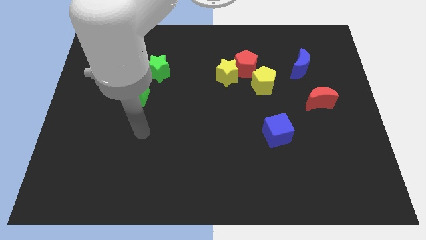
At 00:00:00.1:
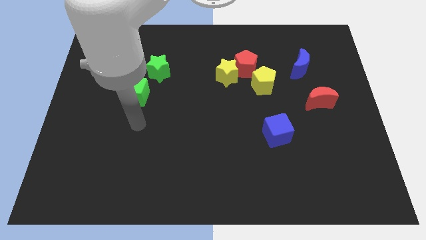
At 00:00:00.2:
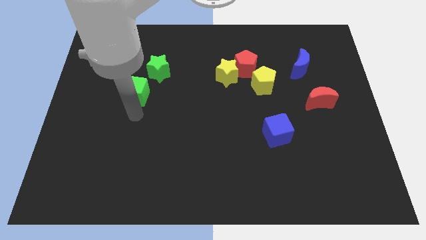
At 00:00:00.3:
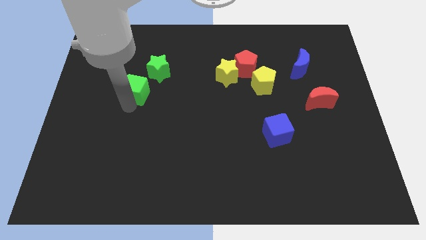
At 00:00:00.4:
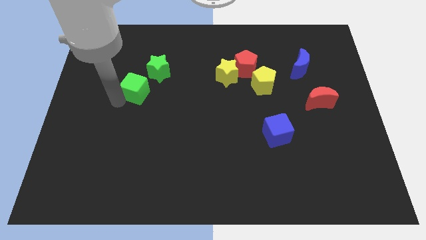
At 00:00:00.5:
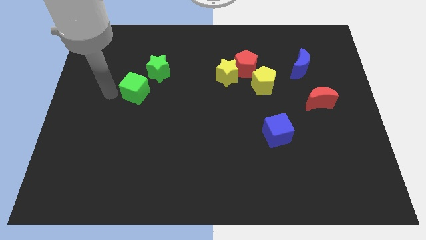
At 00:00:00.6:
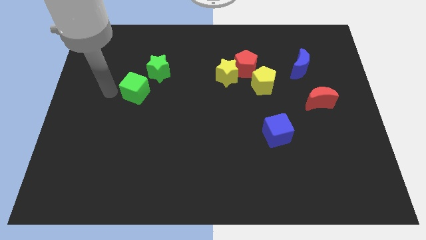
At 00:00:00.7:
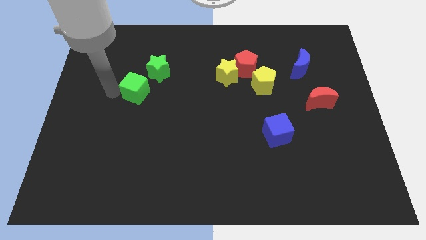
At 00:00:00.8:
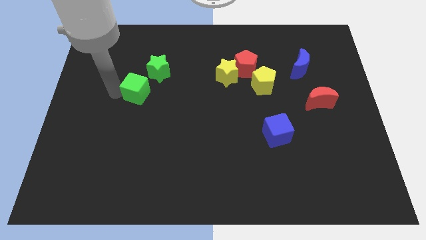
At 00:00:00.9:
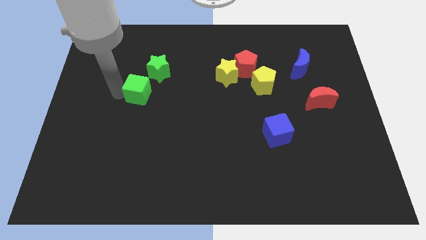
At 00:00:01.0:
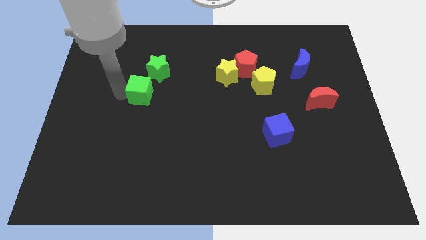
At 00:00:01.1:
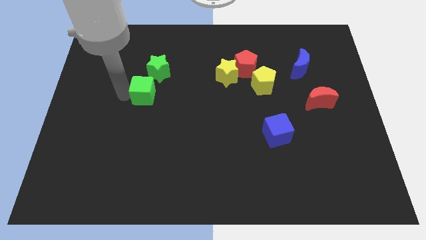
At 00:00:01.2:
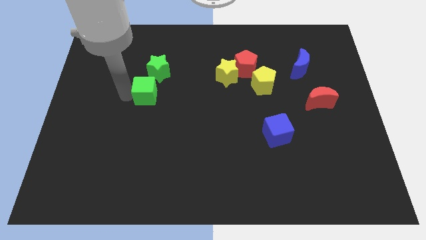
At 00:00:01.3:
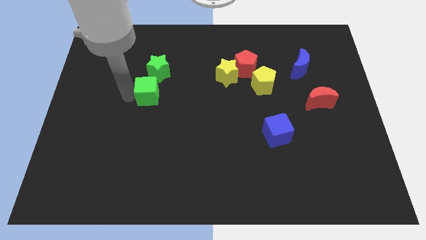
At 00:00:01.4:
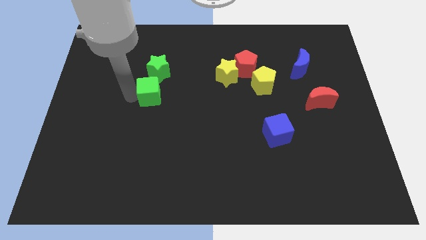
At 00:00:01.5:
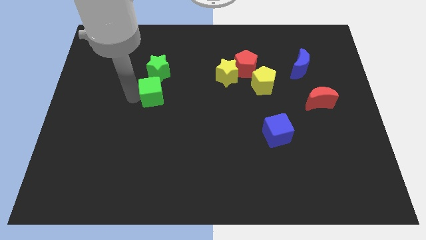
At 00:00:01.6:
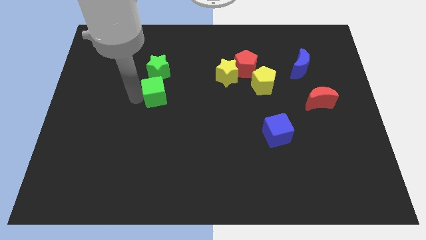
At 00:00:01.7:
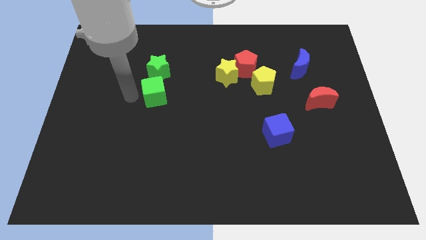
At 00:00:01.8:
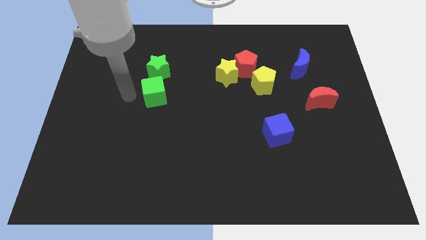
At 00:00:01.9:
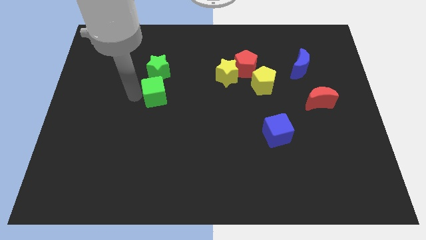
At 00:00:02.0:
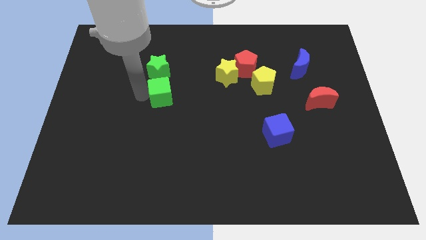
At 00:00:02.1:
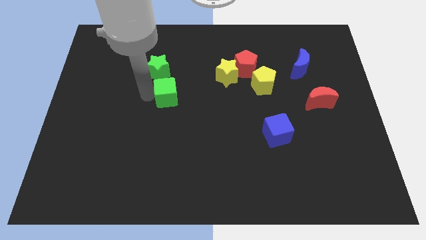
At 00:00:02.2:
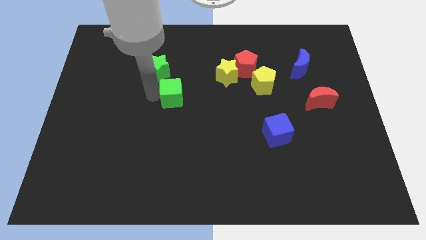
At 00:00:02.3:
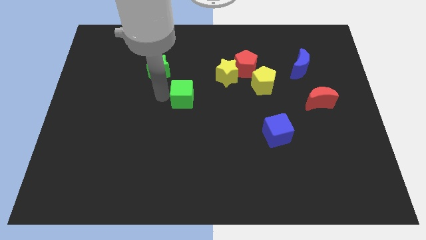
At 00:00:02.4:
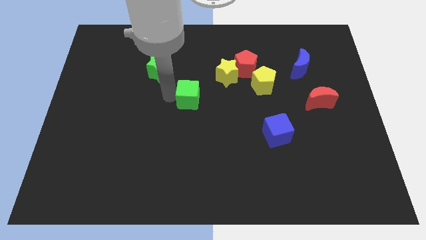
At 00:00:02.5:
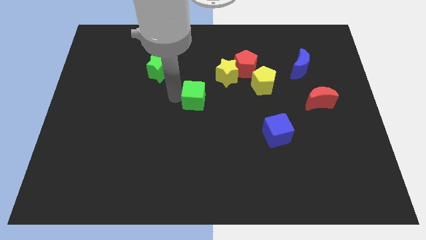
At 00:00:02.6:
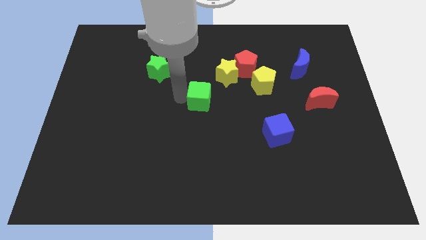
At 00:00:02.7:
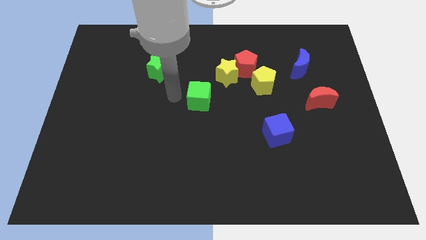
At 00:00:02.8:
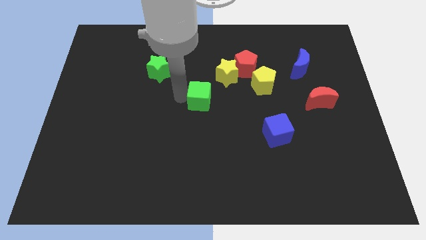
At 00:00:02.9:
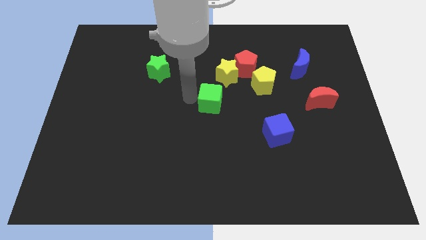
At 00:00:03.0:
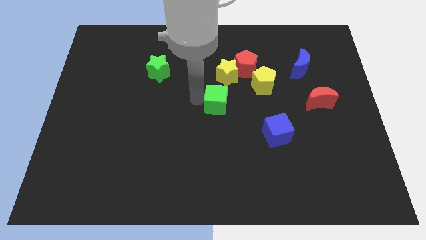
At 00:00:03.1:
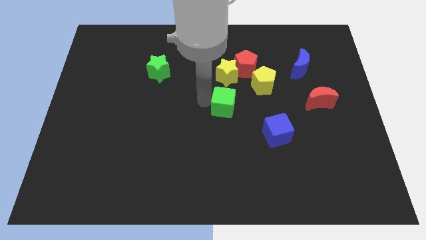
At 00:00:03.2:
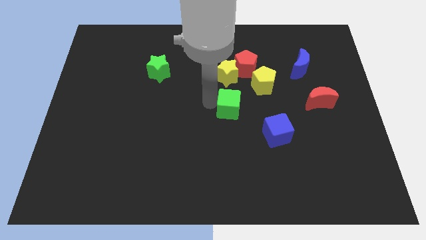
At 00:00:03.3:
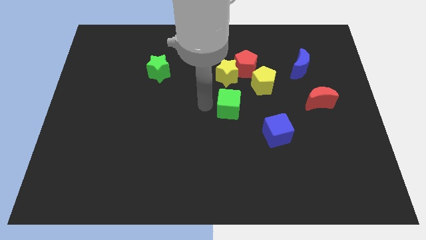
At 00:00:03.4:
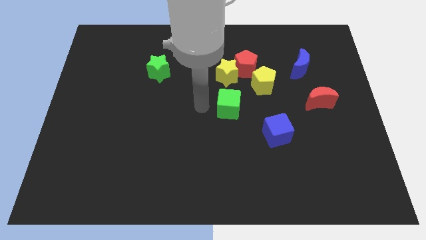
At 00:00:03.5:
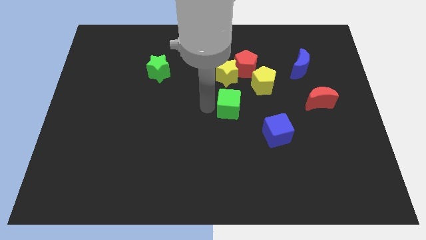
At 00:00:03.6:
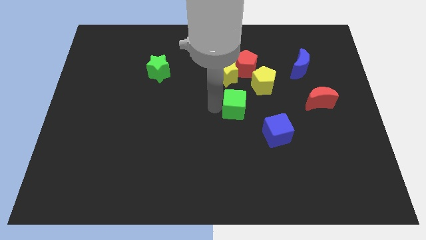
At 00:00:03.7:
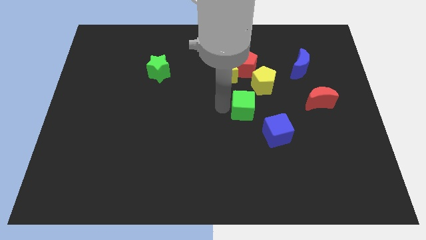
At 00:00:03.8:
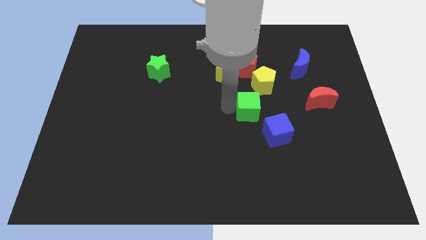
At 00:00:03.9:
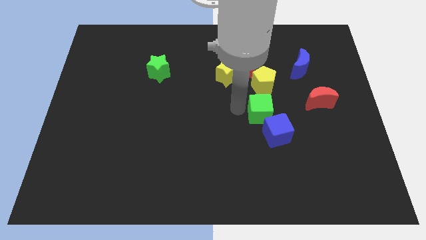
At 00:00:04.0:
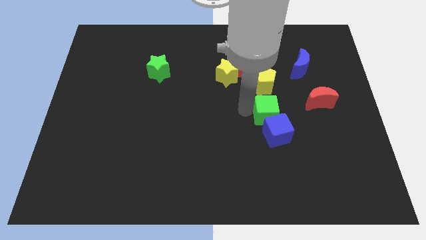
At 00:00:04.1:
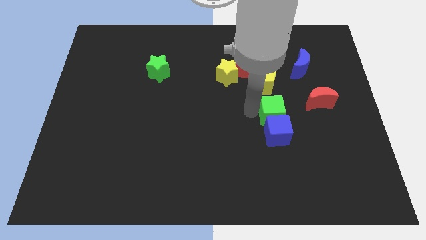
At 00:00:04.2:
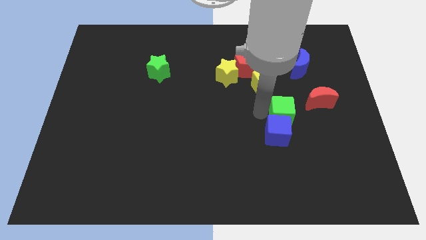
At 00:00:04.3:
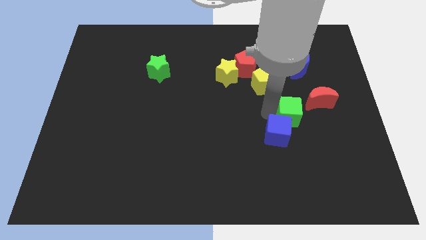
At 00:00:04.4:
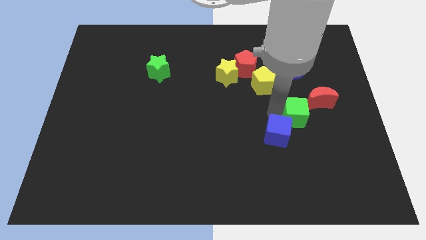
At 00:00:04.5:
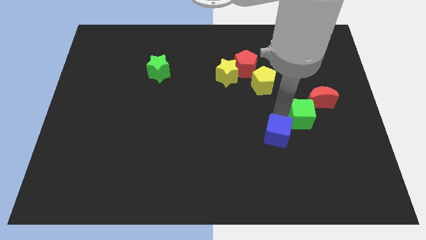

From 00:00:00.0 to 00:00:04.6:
move the green cube below the blue moon

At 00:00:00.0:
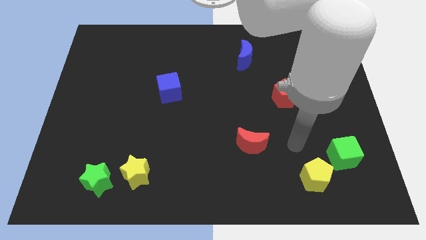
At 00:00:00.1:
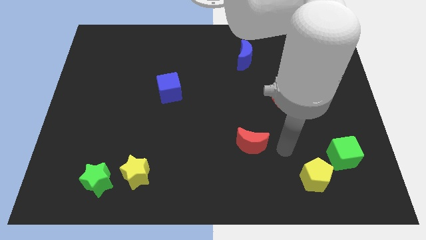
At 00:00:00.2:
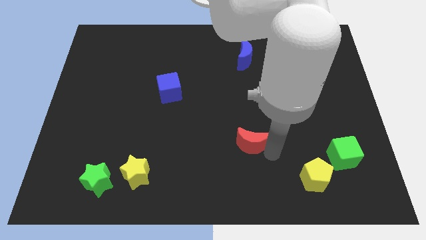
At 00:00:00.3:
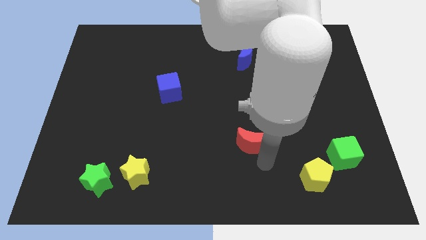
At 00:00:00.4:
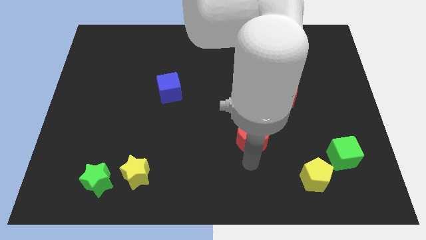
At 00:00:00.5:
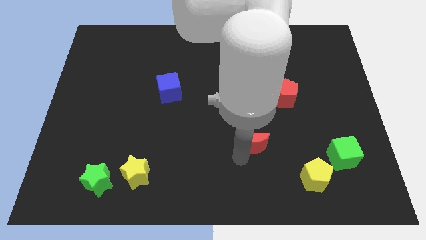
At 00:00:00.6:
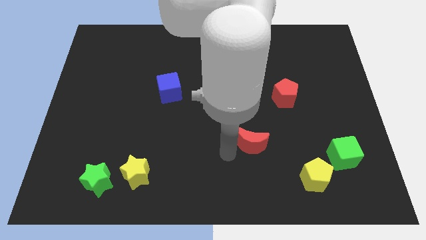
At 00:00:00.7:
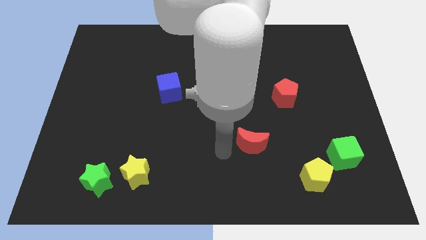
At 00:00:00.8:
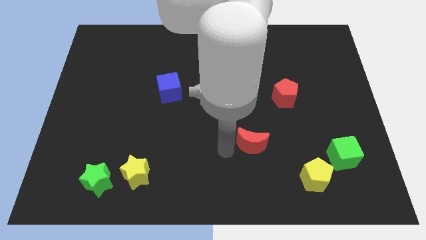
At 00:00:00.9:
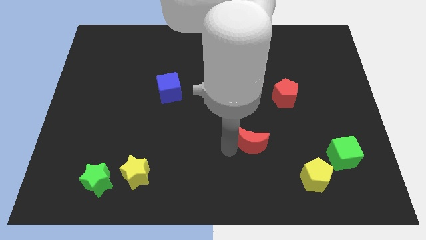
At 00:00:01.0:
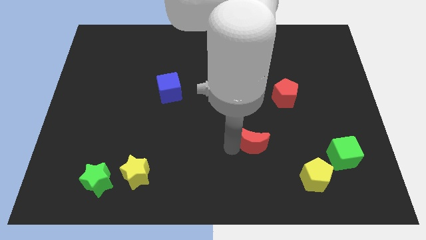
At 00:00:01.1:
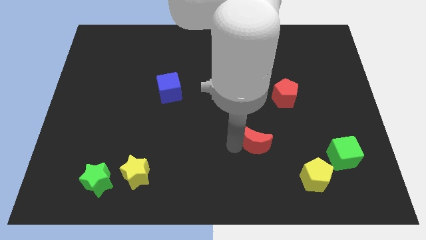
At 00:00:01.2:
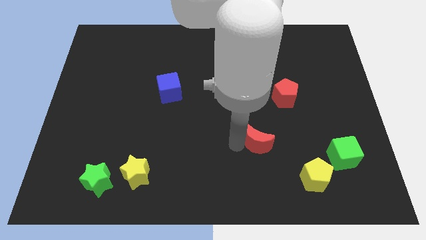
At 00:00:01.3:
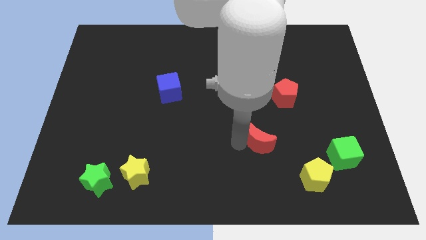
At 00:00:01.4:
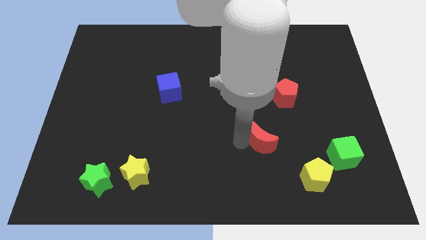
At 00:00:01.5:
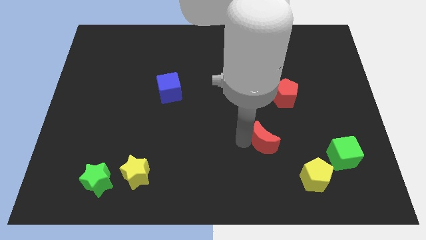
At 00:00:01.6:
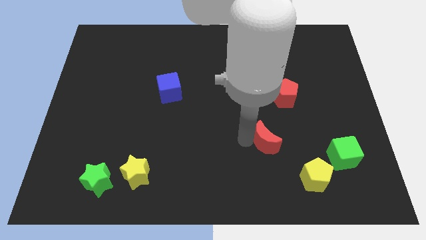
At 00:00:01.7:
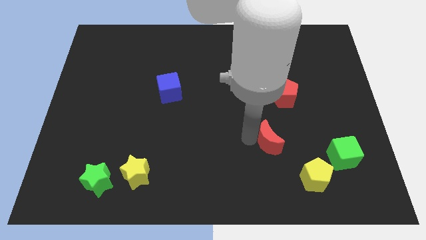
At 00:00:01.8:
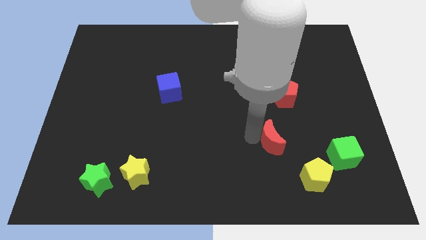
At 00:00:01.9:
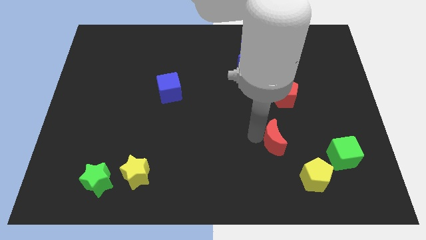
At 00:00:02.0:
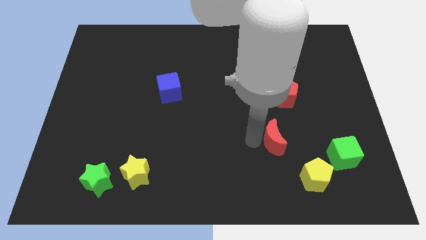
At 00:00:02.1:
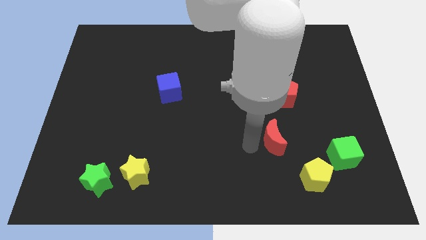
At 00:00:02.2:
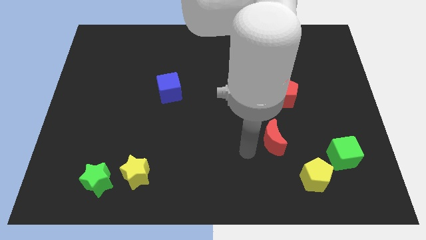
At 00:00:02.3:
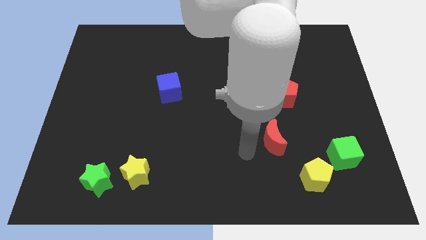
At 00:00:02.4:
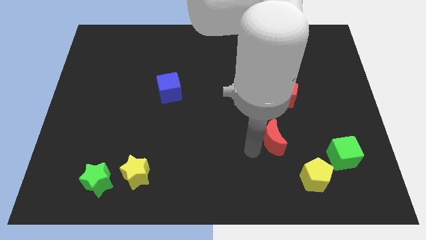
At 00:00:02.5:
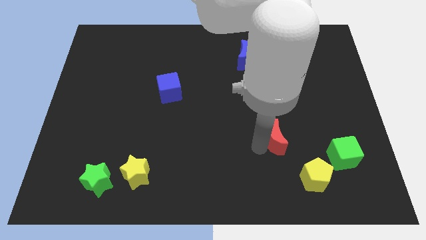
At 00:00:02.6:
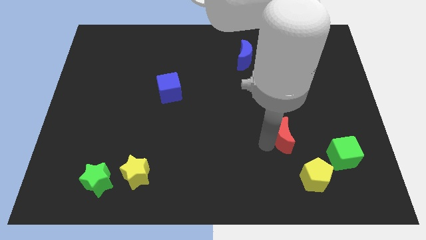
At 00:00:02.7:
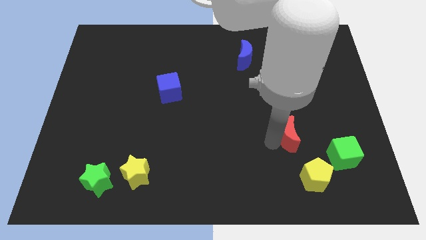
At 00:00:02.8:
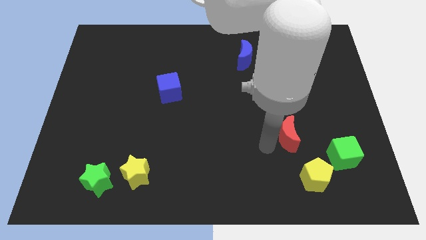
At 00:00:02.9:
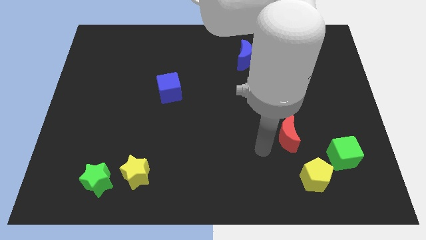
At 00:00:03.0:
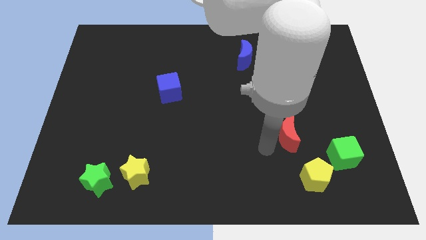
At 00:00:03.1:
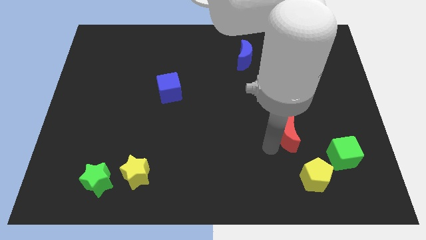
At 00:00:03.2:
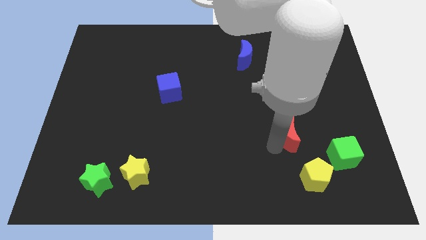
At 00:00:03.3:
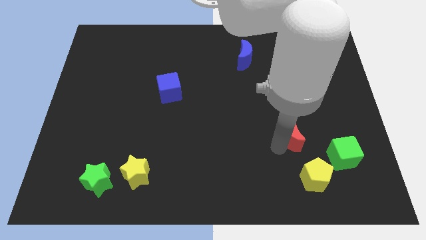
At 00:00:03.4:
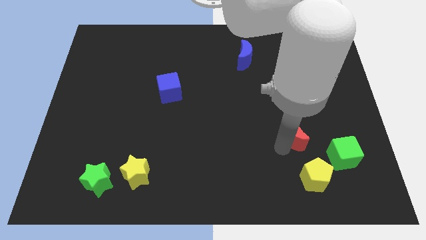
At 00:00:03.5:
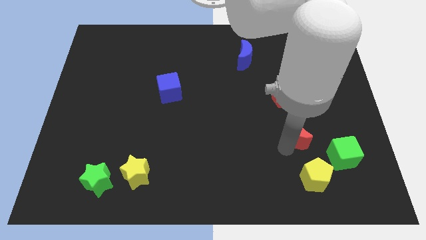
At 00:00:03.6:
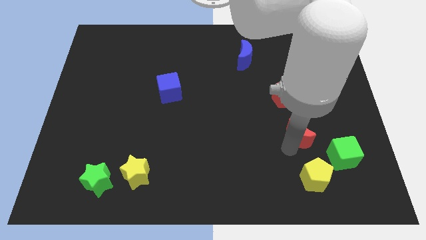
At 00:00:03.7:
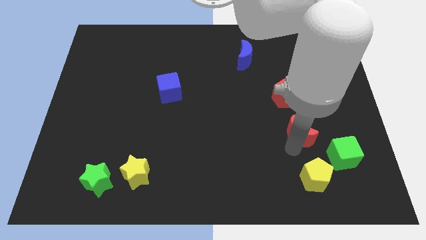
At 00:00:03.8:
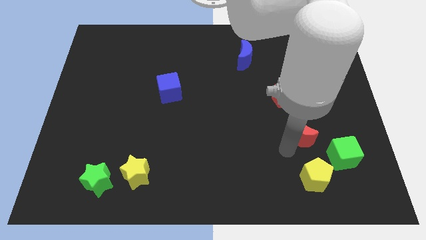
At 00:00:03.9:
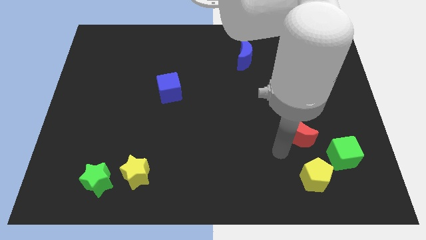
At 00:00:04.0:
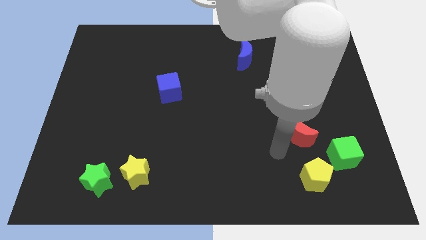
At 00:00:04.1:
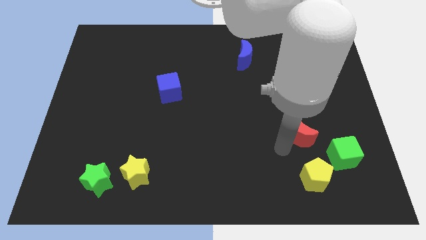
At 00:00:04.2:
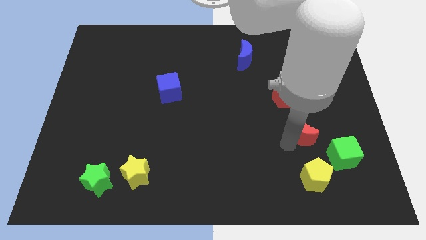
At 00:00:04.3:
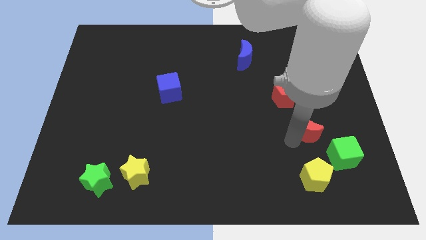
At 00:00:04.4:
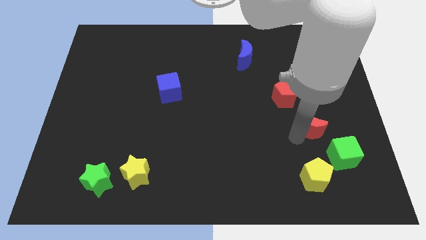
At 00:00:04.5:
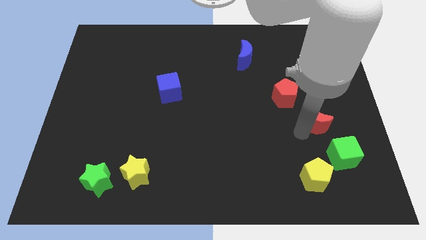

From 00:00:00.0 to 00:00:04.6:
move the red moon to the top side of the green cube
